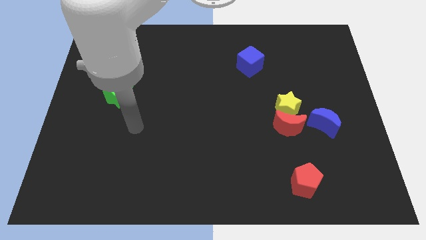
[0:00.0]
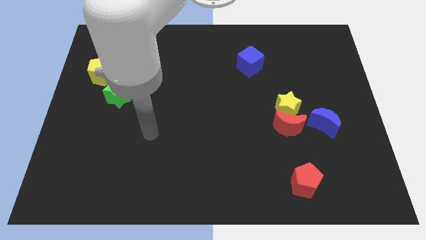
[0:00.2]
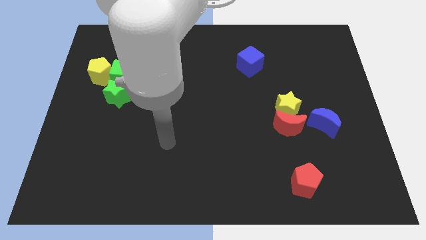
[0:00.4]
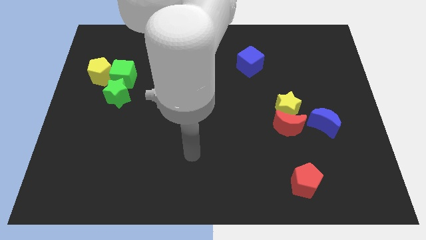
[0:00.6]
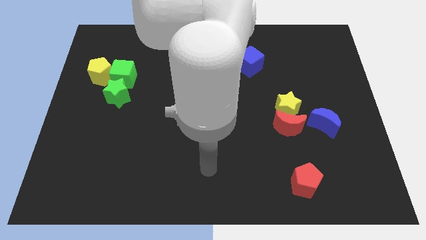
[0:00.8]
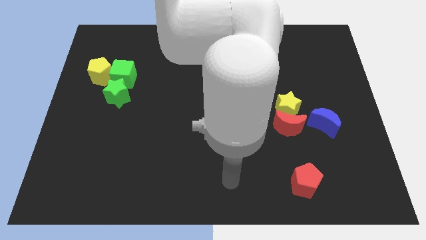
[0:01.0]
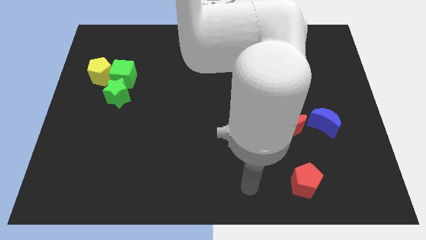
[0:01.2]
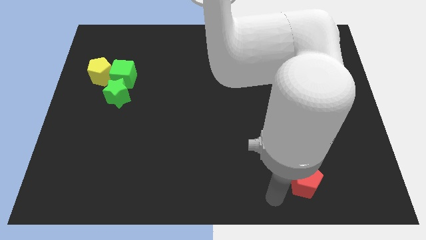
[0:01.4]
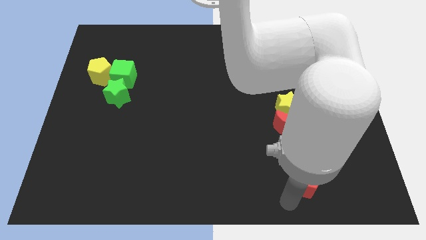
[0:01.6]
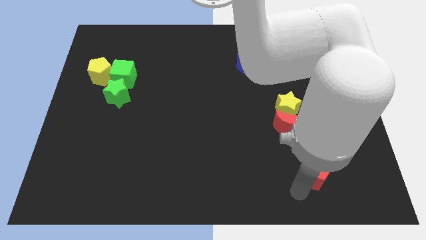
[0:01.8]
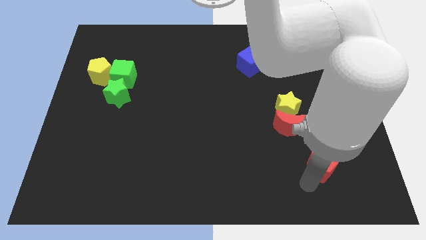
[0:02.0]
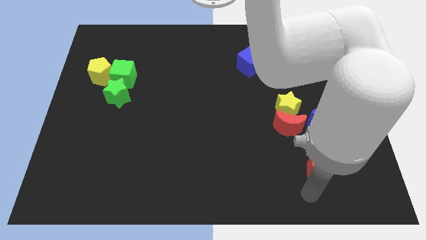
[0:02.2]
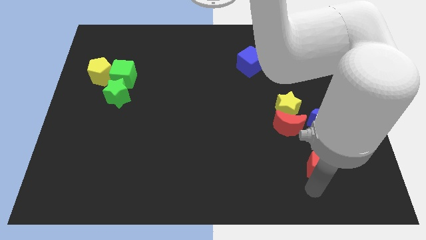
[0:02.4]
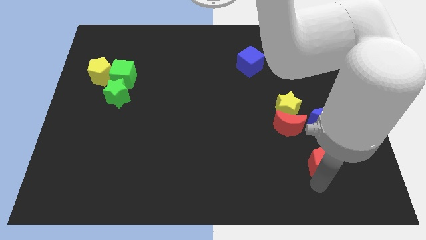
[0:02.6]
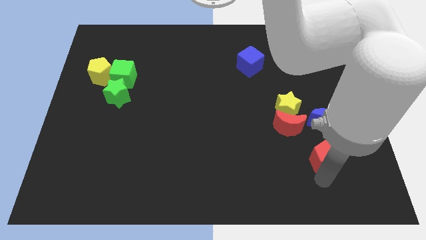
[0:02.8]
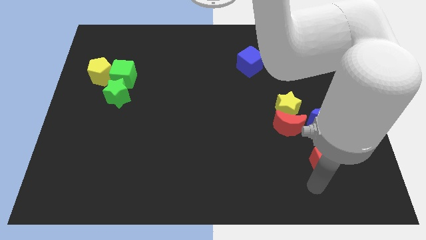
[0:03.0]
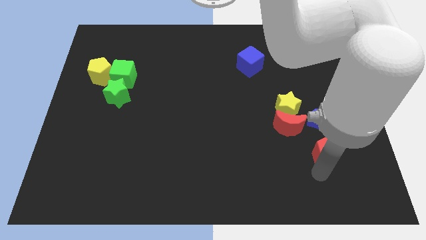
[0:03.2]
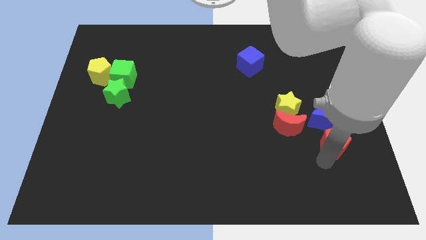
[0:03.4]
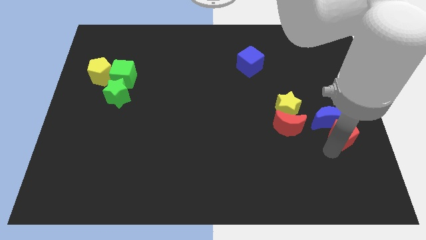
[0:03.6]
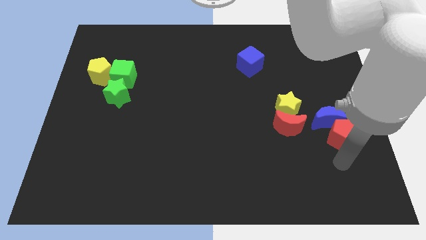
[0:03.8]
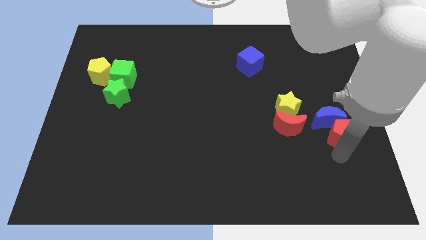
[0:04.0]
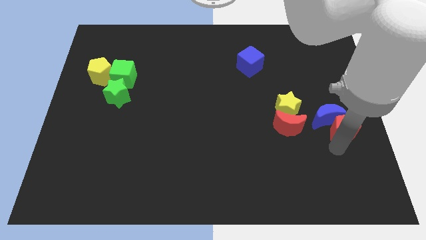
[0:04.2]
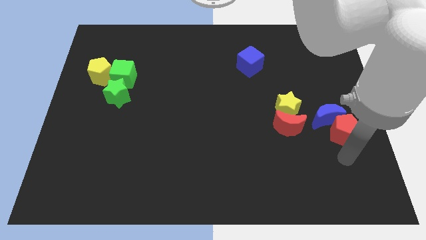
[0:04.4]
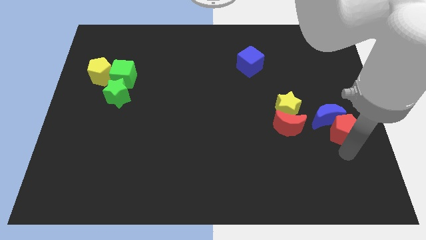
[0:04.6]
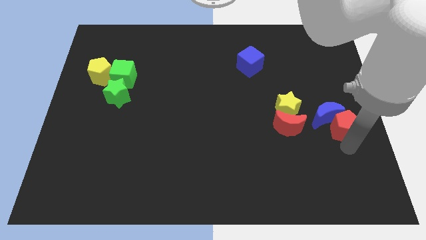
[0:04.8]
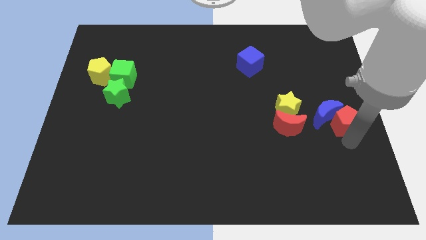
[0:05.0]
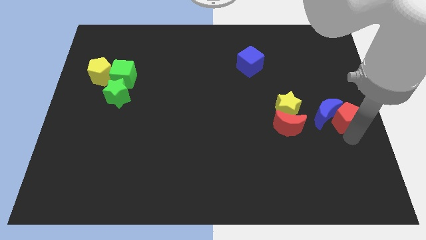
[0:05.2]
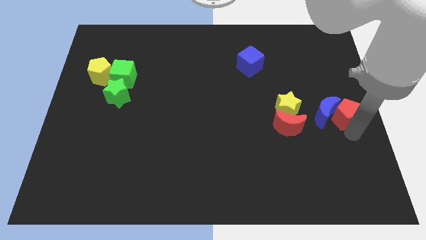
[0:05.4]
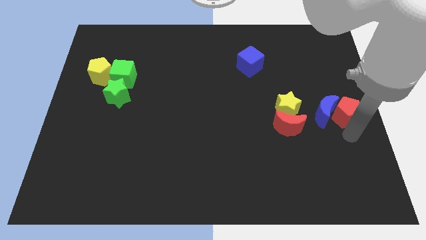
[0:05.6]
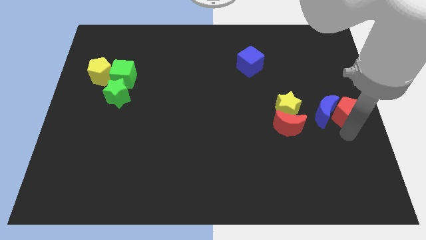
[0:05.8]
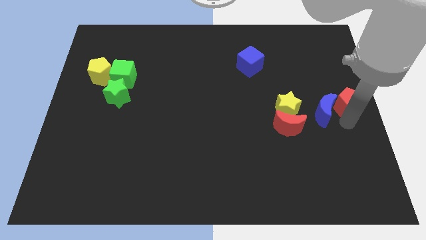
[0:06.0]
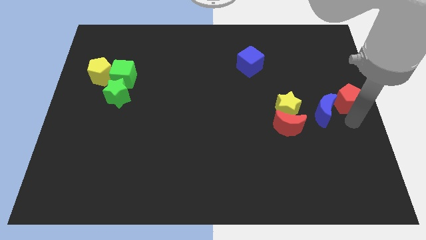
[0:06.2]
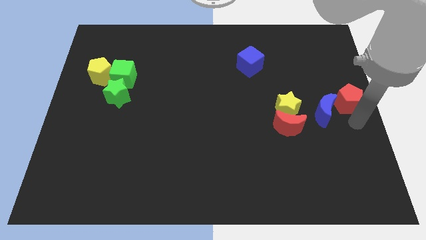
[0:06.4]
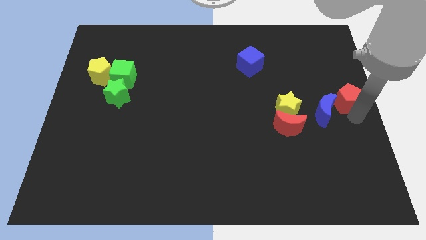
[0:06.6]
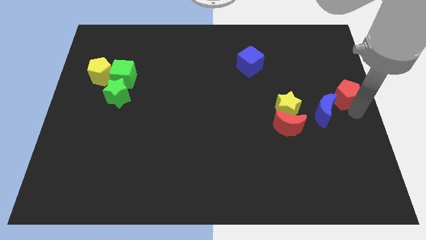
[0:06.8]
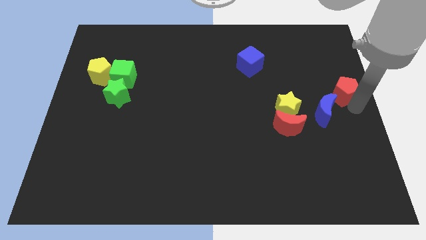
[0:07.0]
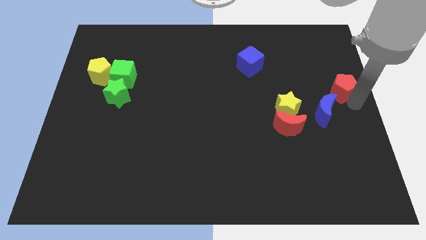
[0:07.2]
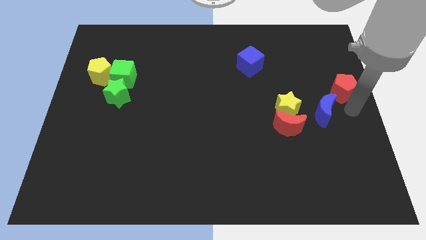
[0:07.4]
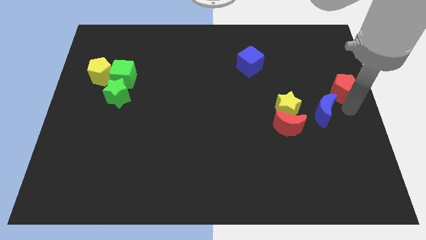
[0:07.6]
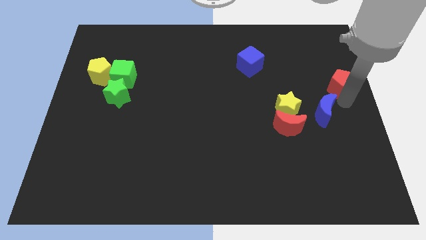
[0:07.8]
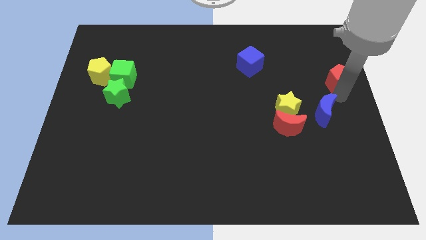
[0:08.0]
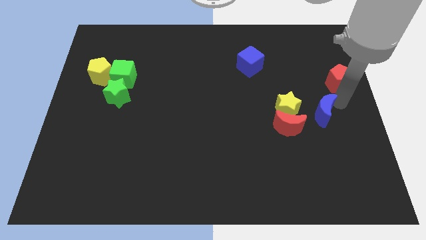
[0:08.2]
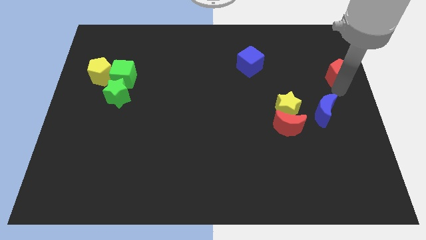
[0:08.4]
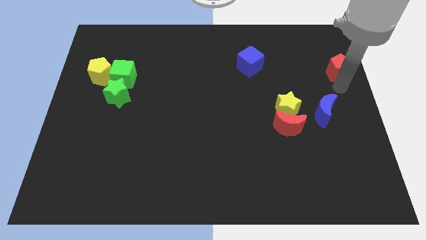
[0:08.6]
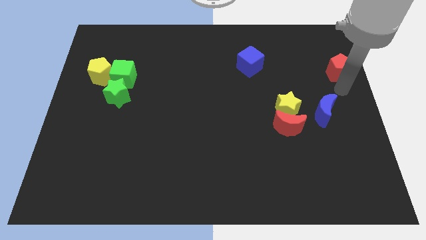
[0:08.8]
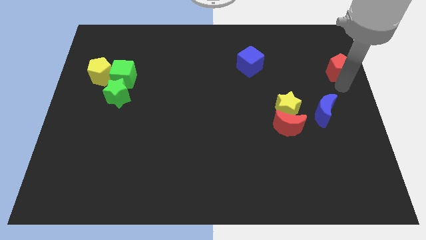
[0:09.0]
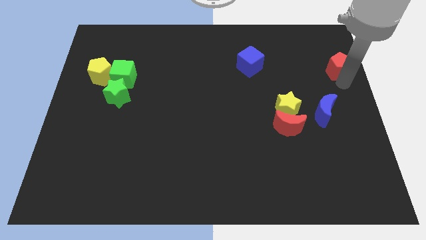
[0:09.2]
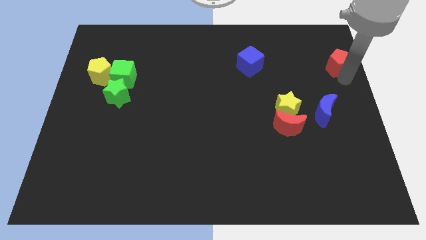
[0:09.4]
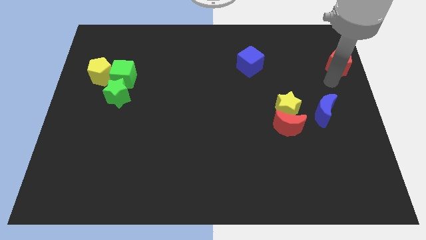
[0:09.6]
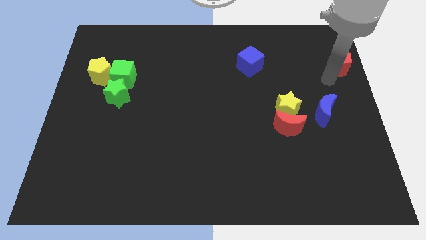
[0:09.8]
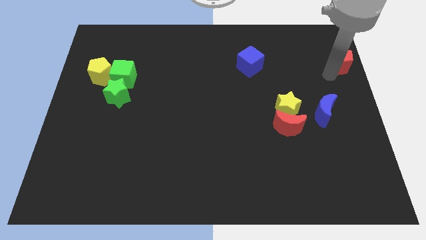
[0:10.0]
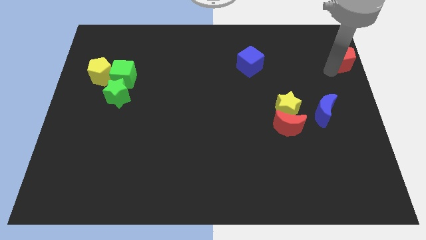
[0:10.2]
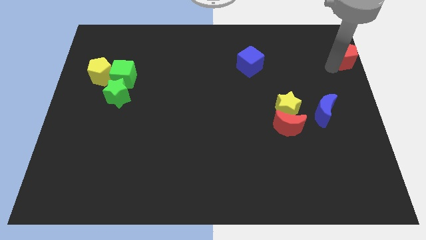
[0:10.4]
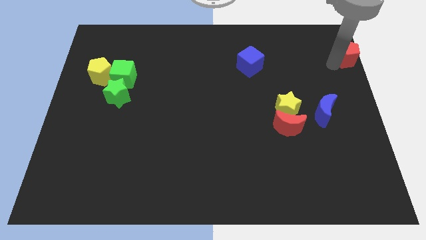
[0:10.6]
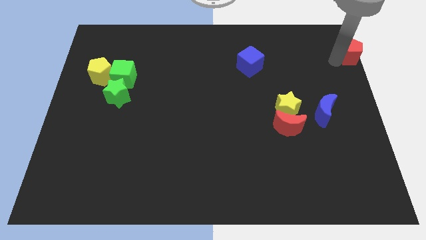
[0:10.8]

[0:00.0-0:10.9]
move the red pentagon to the top right

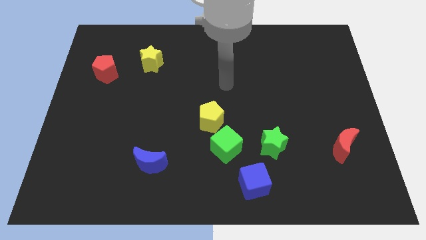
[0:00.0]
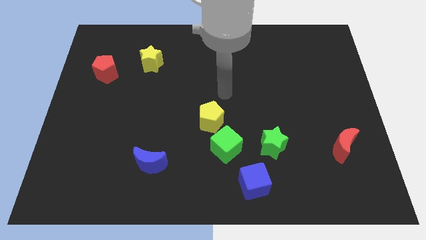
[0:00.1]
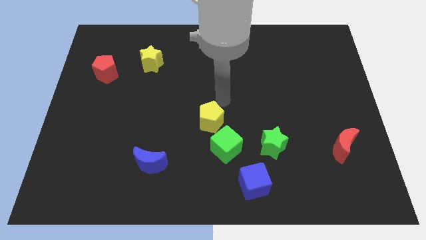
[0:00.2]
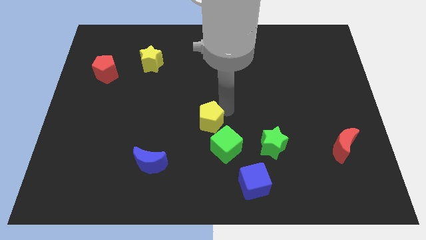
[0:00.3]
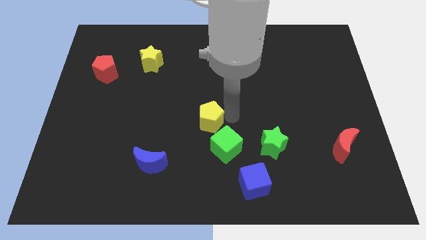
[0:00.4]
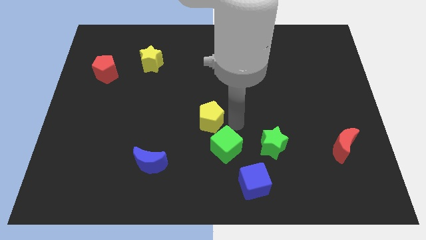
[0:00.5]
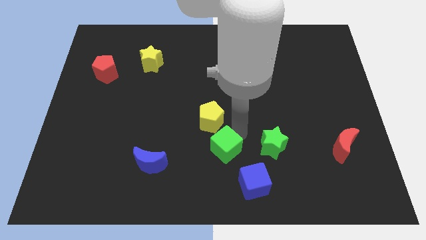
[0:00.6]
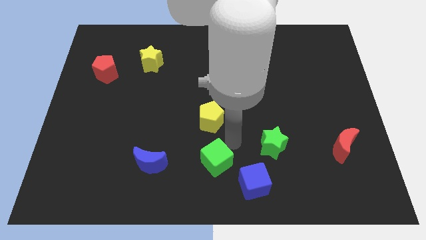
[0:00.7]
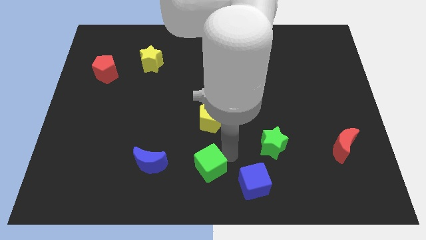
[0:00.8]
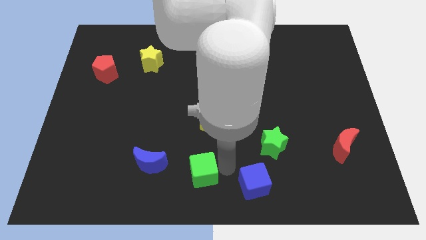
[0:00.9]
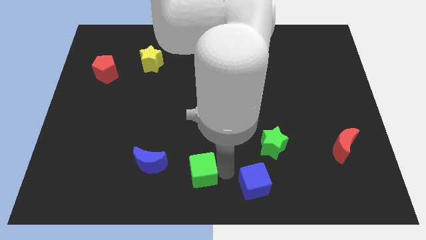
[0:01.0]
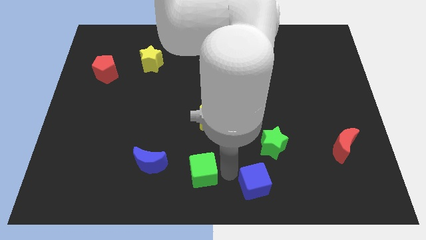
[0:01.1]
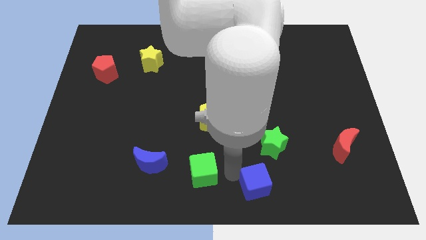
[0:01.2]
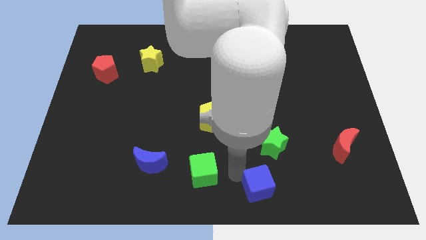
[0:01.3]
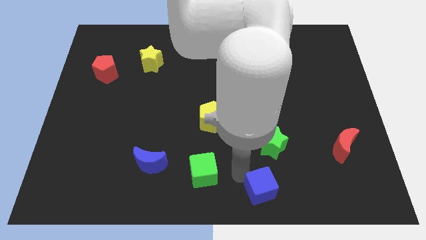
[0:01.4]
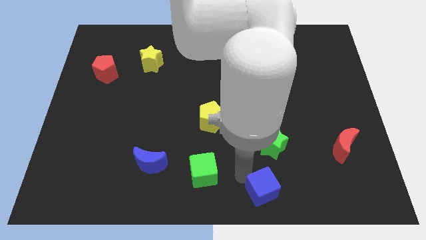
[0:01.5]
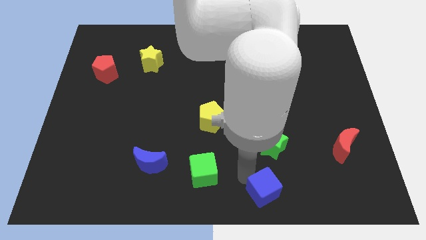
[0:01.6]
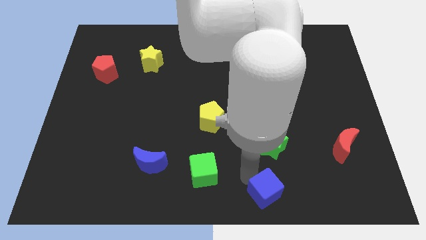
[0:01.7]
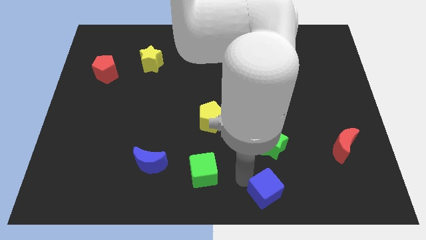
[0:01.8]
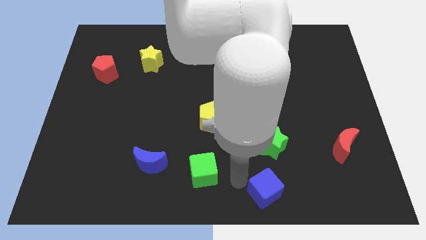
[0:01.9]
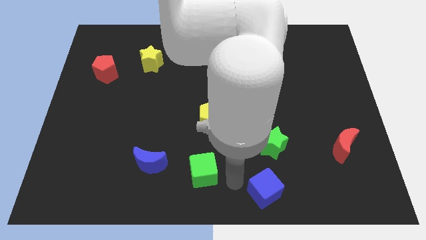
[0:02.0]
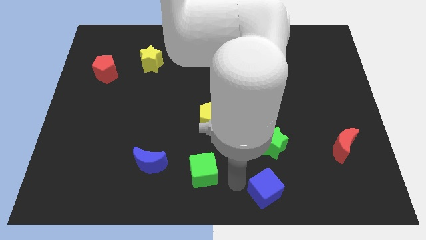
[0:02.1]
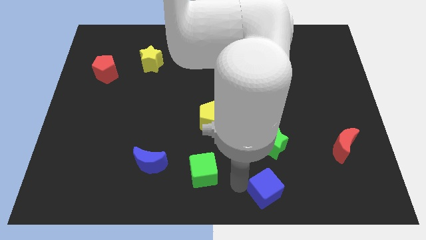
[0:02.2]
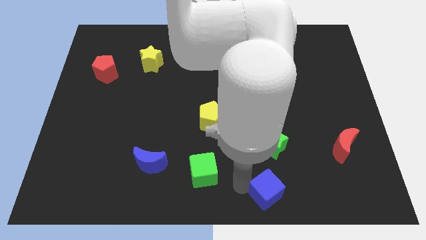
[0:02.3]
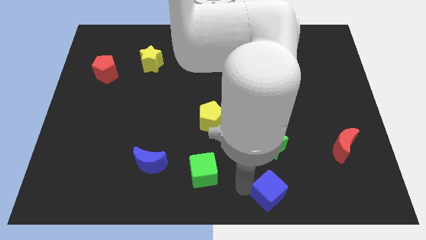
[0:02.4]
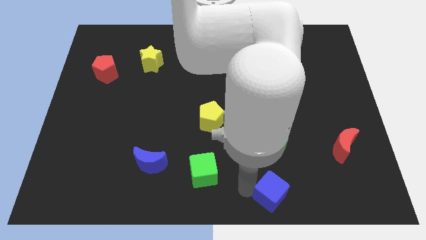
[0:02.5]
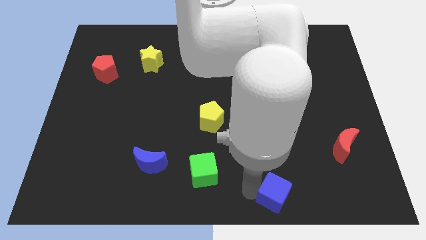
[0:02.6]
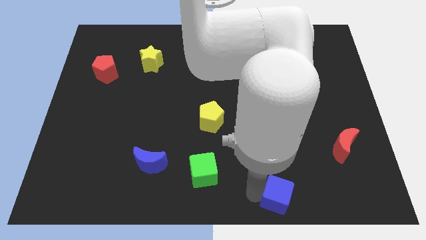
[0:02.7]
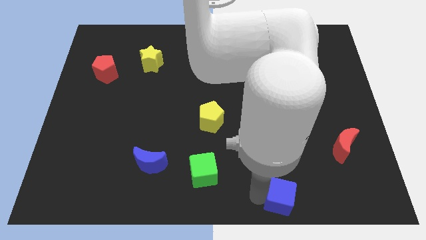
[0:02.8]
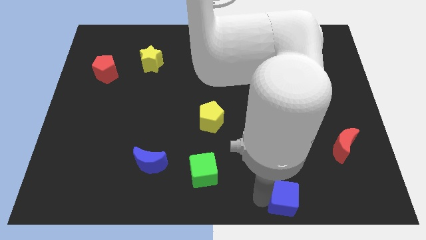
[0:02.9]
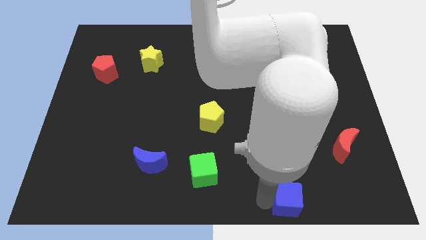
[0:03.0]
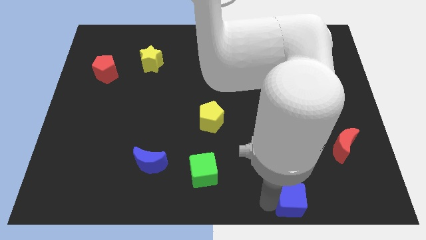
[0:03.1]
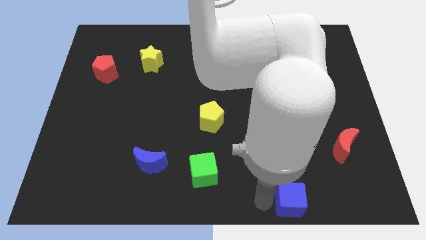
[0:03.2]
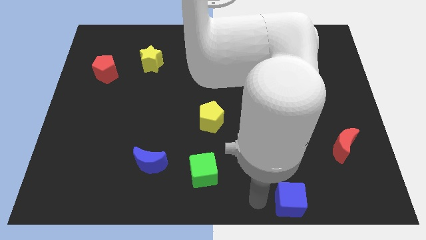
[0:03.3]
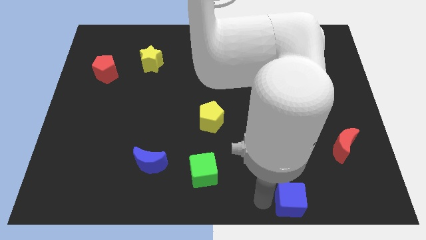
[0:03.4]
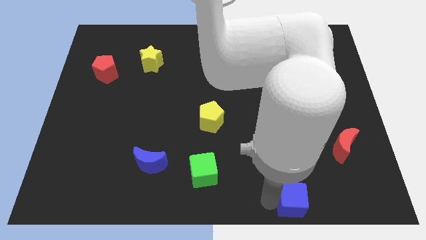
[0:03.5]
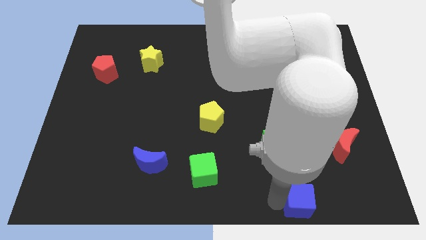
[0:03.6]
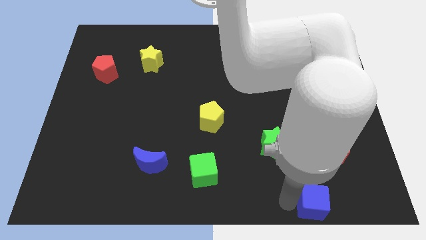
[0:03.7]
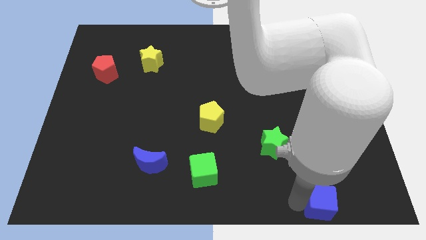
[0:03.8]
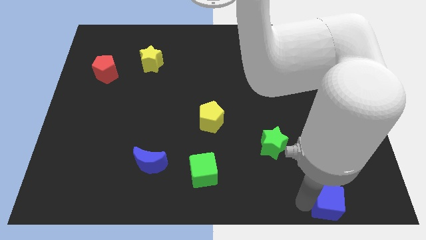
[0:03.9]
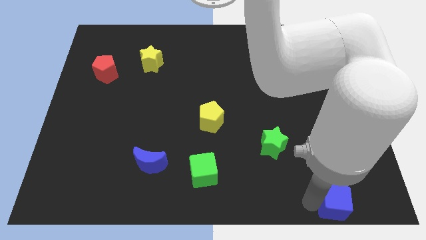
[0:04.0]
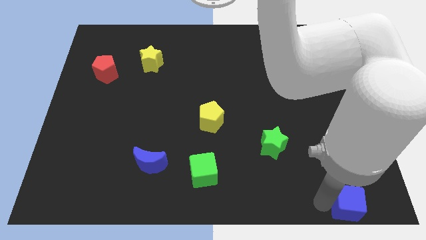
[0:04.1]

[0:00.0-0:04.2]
push the blue cube to the lower right corner
